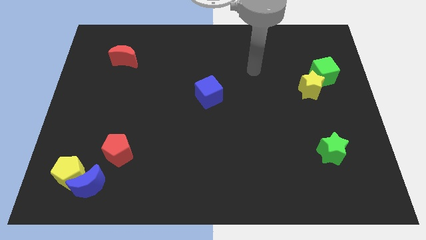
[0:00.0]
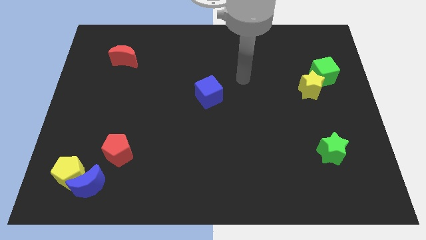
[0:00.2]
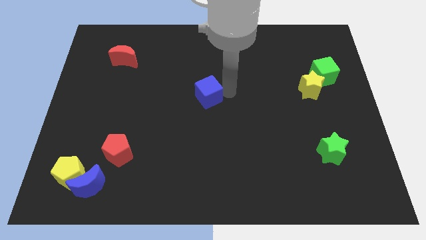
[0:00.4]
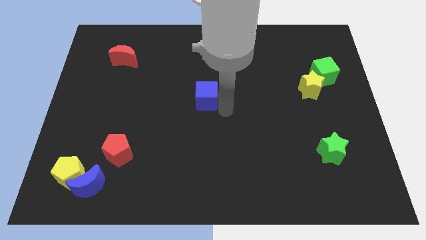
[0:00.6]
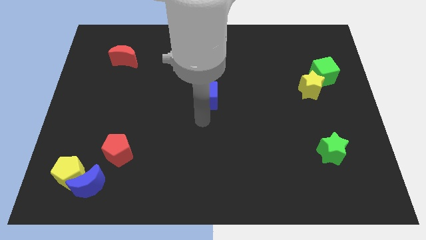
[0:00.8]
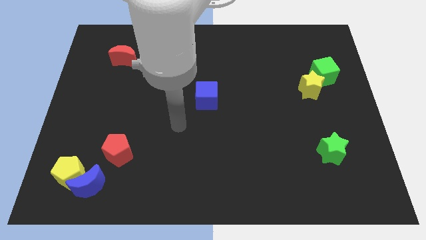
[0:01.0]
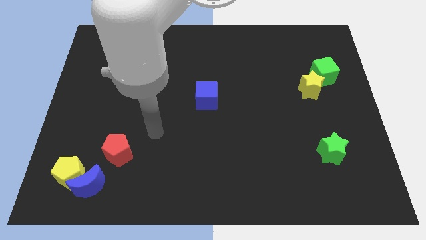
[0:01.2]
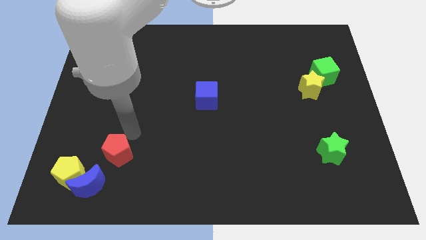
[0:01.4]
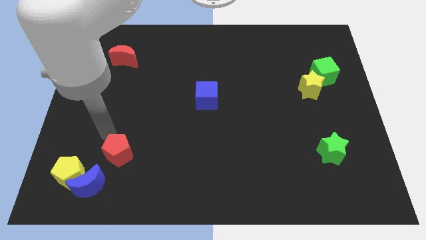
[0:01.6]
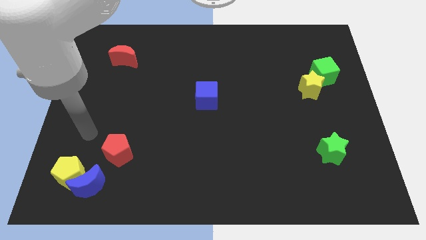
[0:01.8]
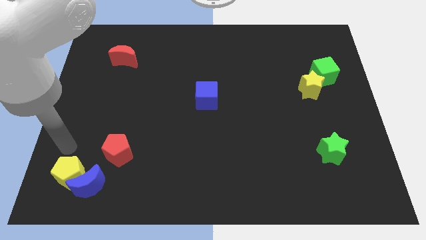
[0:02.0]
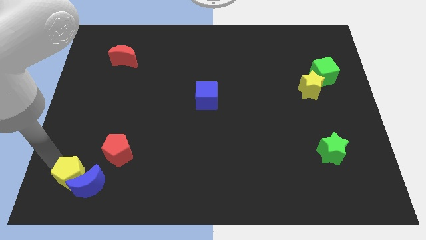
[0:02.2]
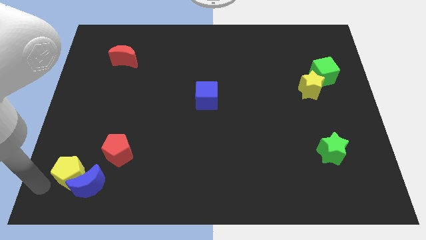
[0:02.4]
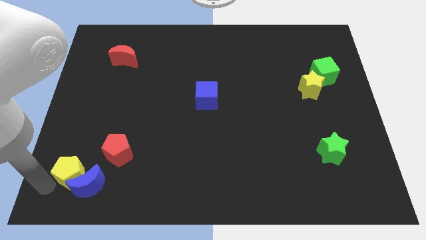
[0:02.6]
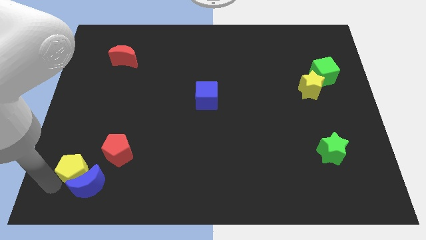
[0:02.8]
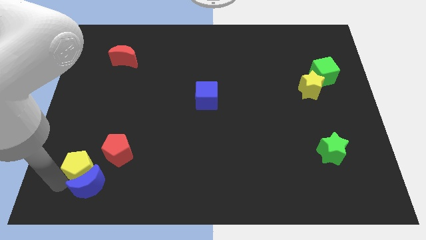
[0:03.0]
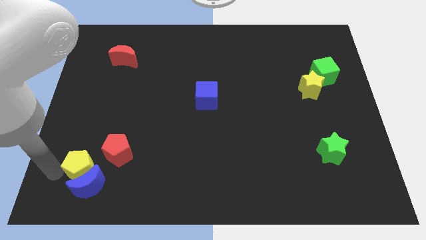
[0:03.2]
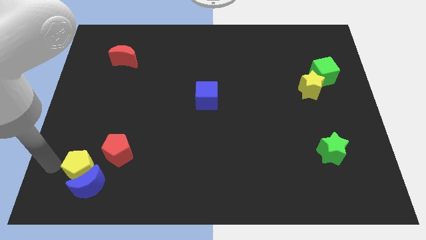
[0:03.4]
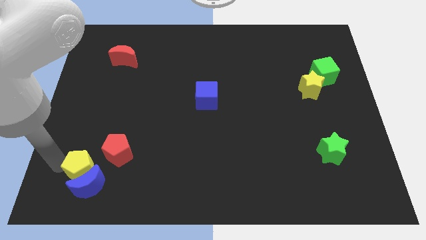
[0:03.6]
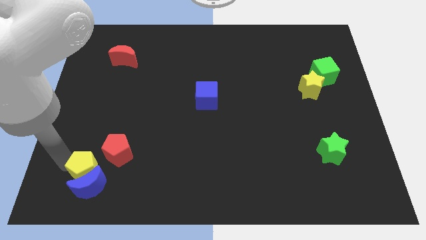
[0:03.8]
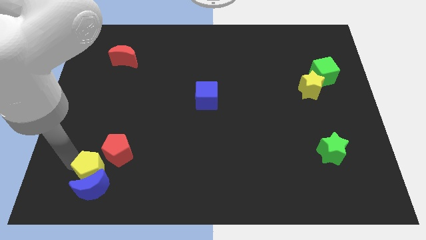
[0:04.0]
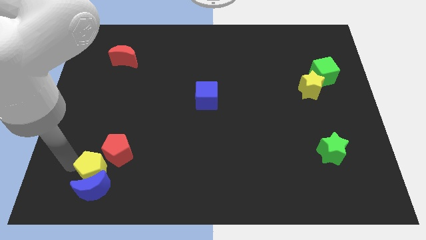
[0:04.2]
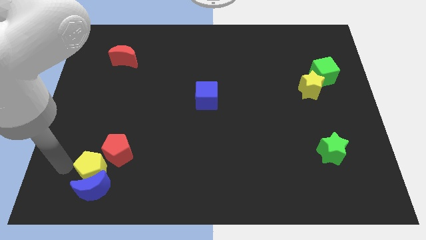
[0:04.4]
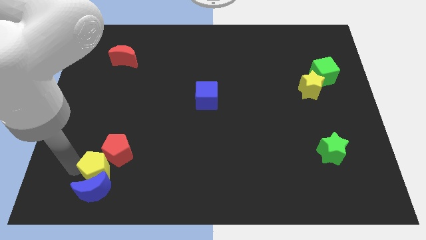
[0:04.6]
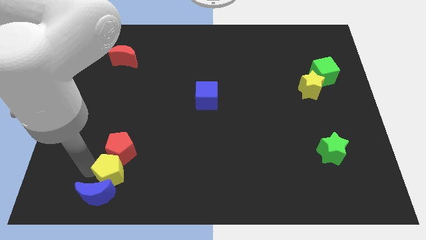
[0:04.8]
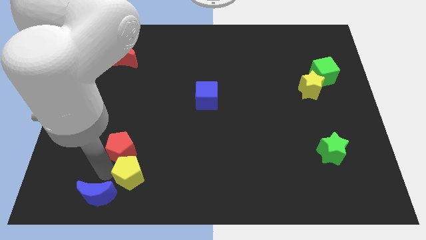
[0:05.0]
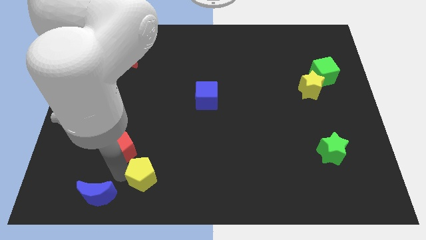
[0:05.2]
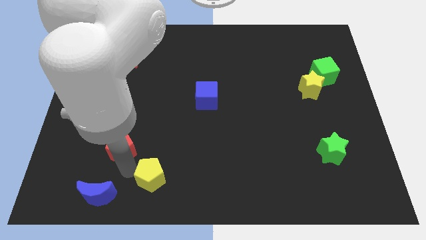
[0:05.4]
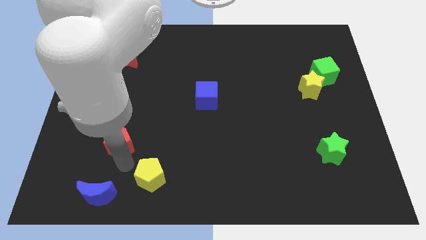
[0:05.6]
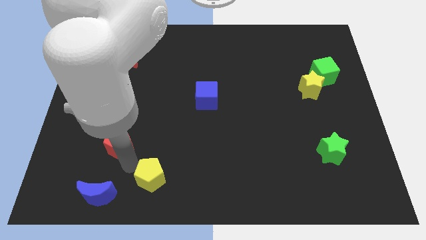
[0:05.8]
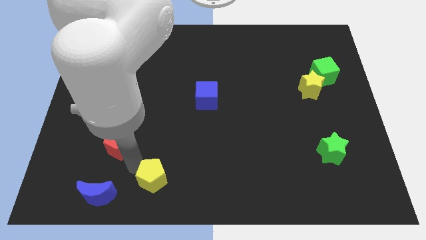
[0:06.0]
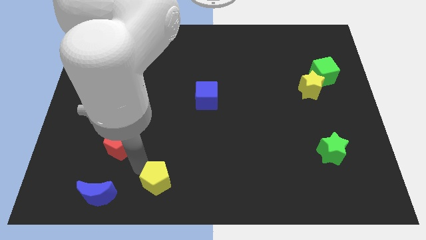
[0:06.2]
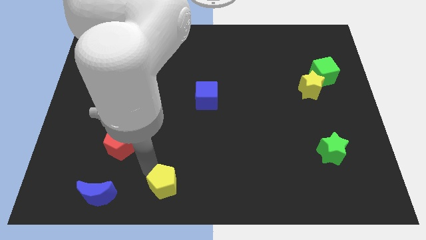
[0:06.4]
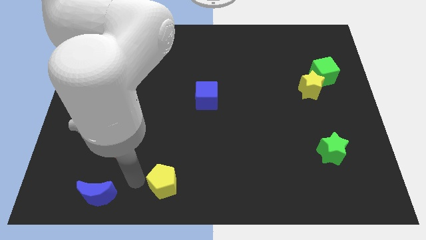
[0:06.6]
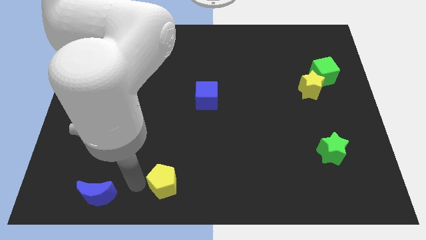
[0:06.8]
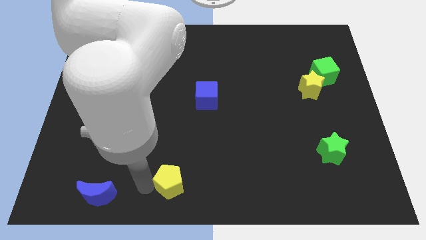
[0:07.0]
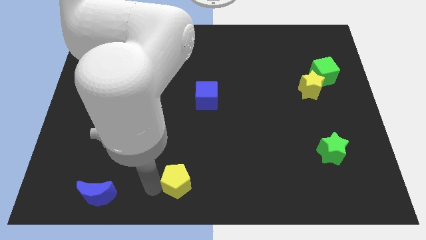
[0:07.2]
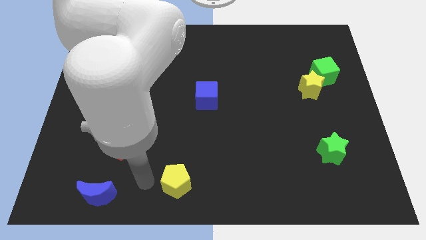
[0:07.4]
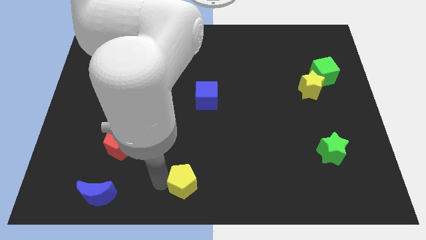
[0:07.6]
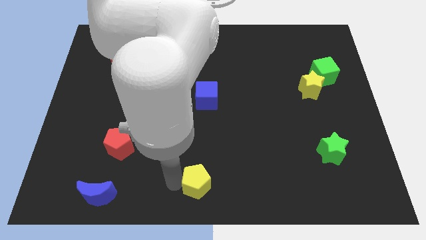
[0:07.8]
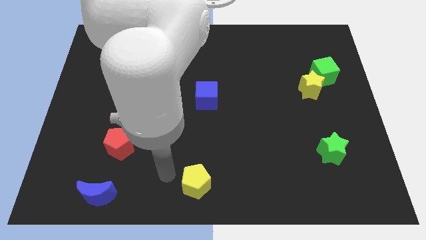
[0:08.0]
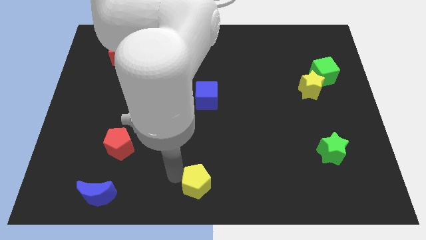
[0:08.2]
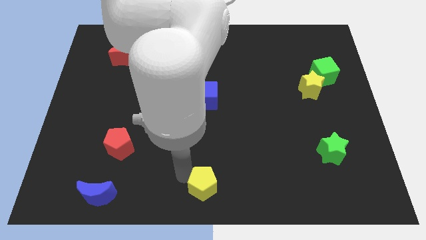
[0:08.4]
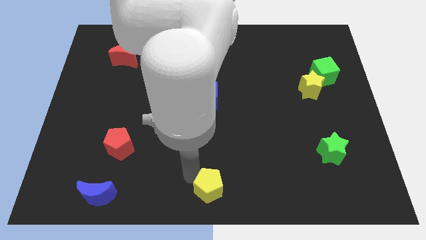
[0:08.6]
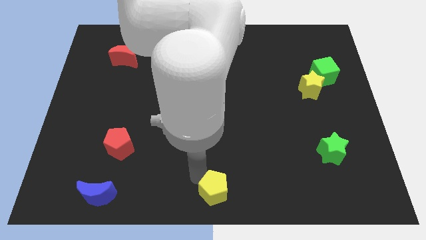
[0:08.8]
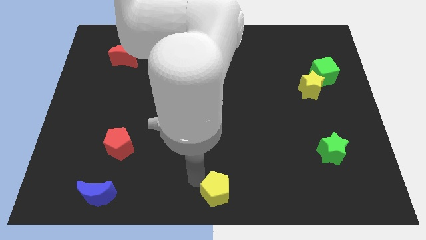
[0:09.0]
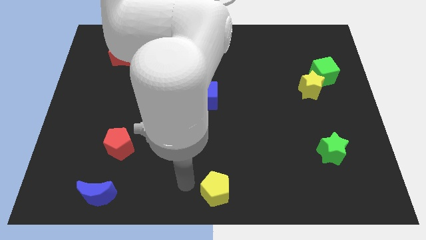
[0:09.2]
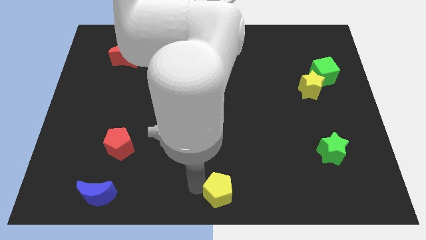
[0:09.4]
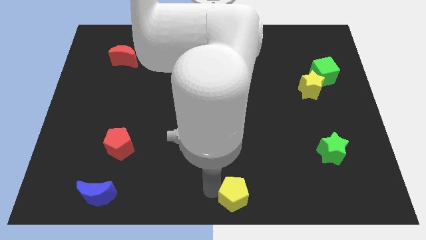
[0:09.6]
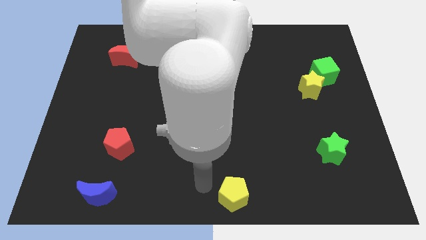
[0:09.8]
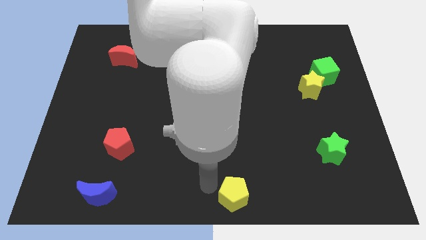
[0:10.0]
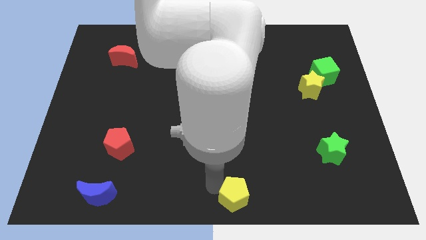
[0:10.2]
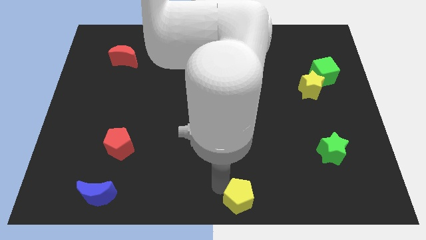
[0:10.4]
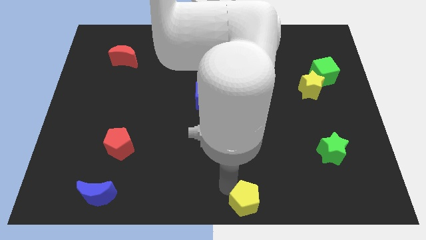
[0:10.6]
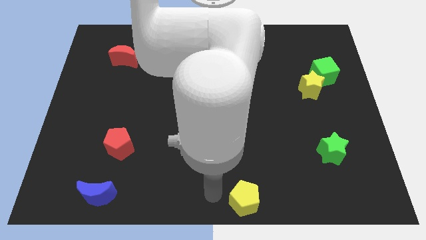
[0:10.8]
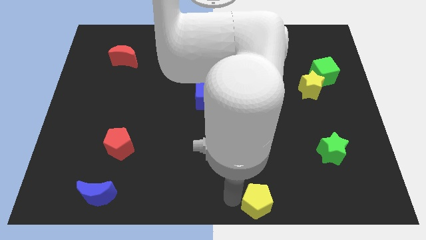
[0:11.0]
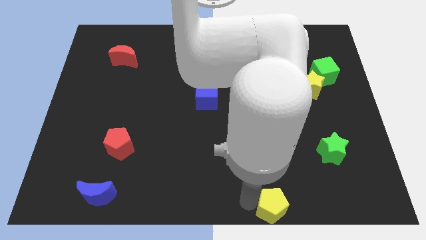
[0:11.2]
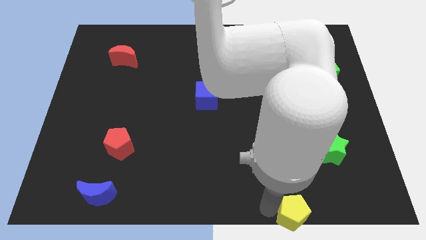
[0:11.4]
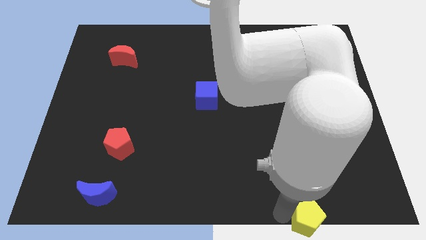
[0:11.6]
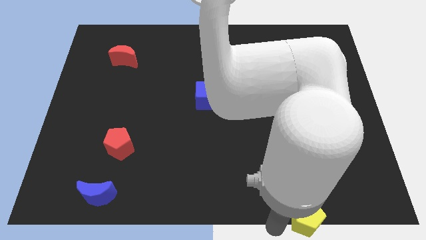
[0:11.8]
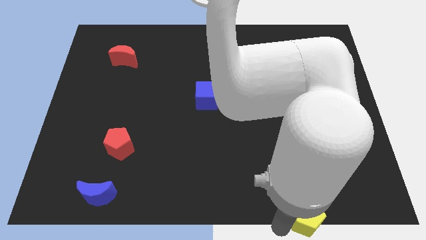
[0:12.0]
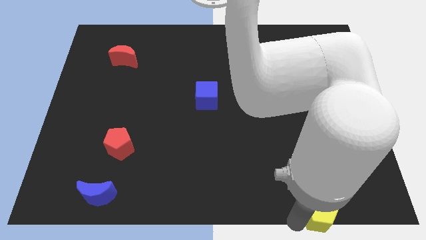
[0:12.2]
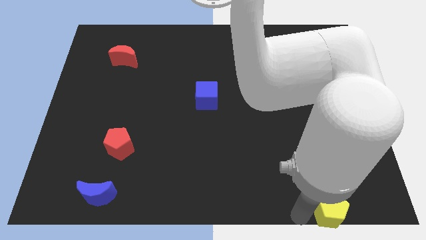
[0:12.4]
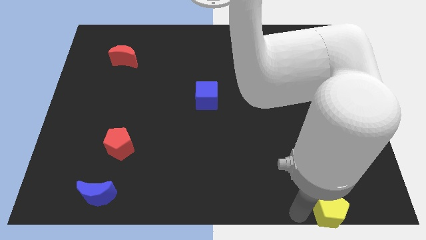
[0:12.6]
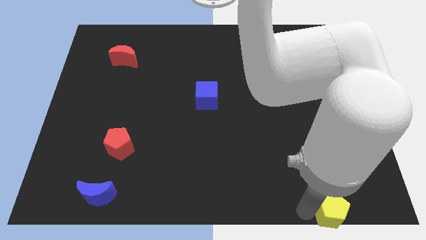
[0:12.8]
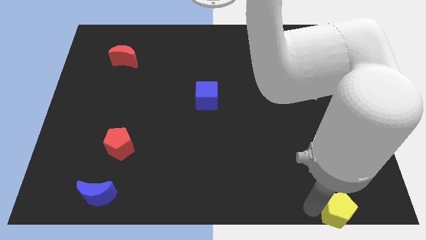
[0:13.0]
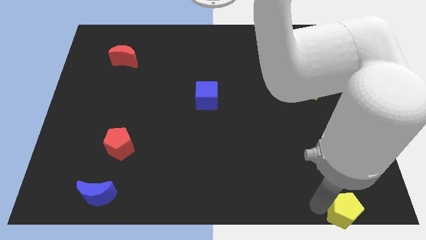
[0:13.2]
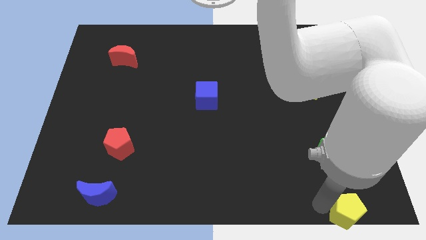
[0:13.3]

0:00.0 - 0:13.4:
slide the yellow pentagon to the bottom right of the board

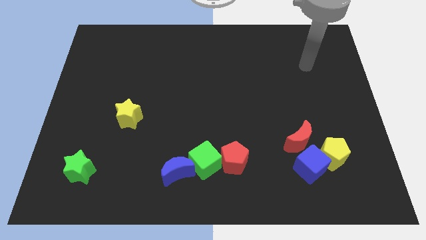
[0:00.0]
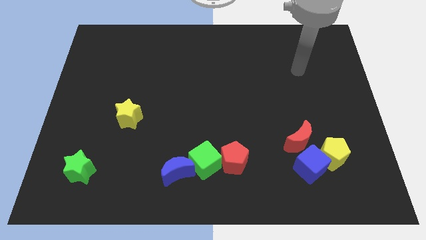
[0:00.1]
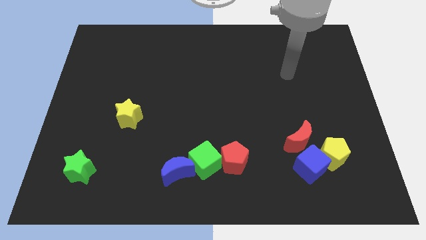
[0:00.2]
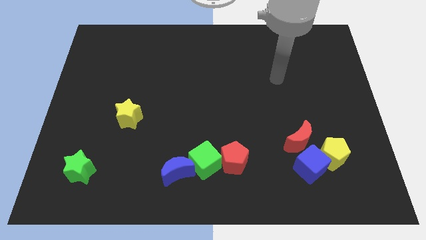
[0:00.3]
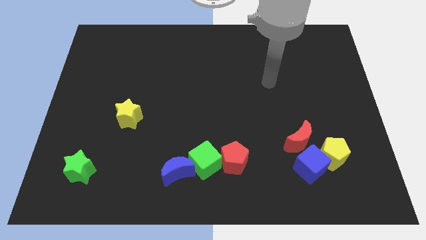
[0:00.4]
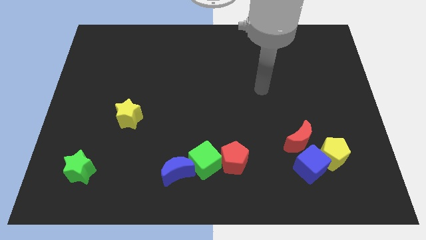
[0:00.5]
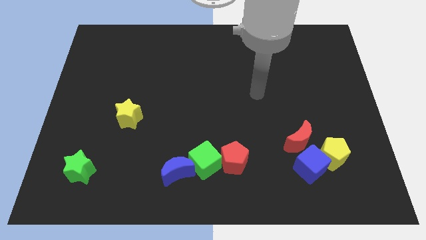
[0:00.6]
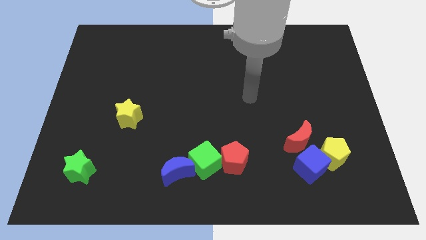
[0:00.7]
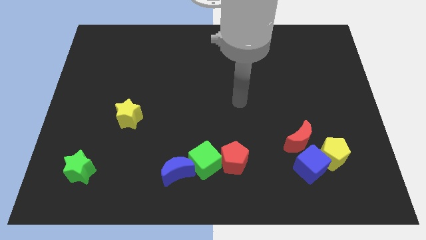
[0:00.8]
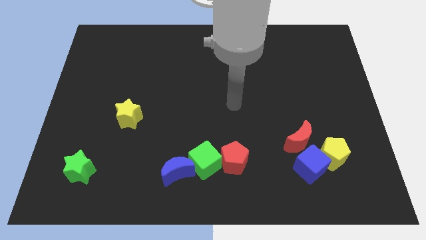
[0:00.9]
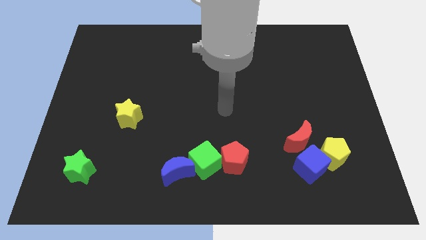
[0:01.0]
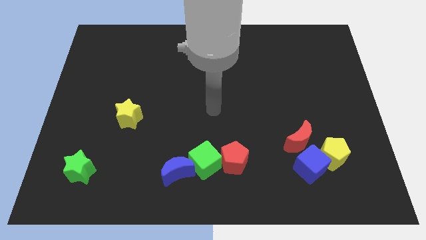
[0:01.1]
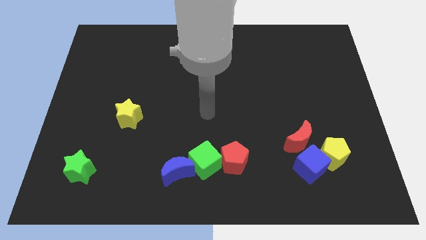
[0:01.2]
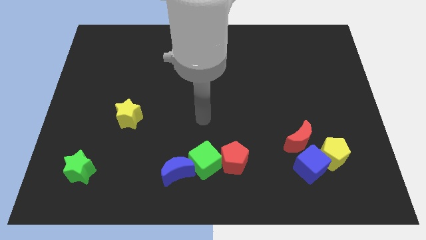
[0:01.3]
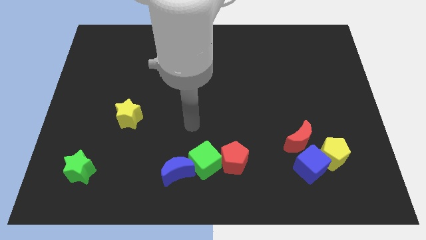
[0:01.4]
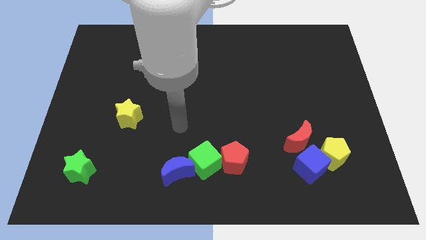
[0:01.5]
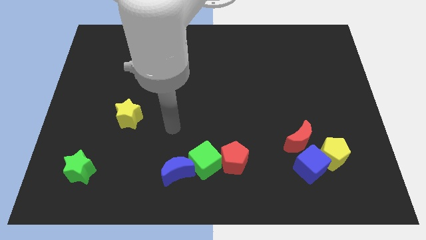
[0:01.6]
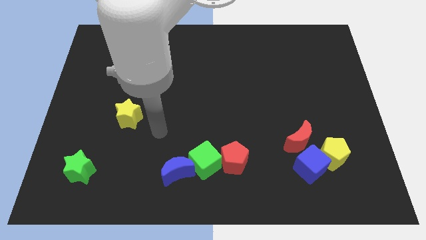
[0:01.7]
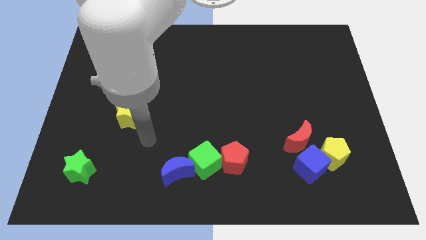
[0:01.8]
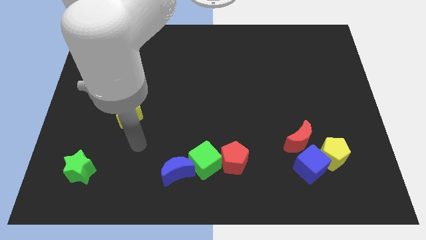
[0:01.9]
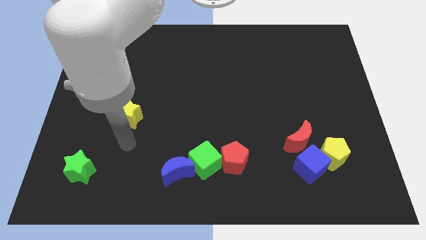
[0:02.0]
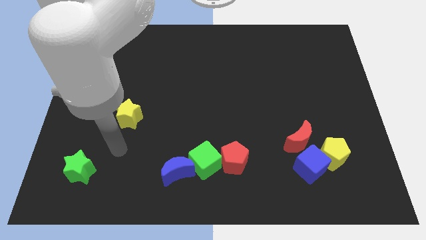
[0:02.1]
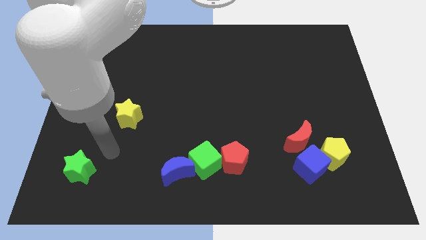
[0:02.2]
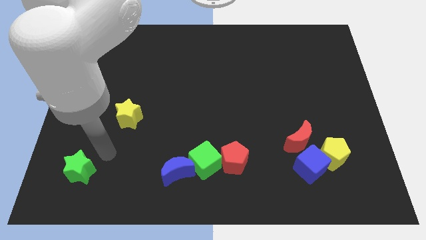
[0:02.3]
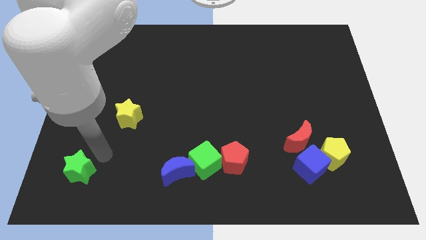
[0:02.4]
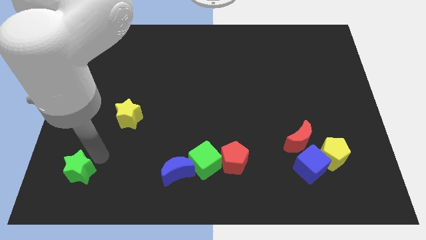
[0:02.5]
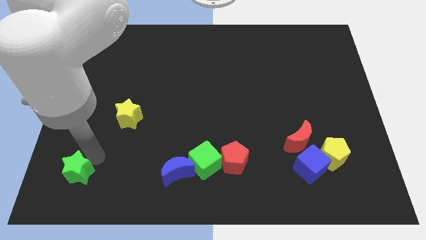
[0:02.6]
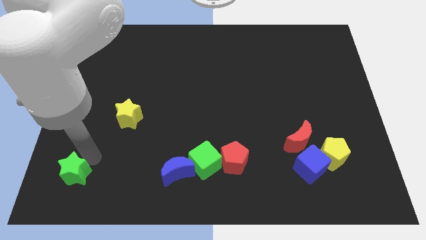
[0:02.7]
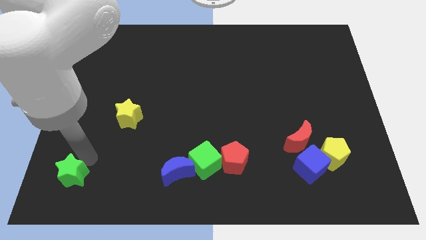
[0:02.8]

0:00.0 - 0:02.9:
slide the green star to the bottom left
